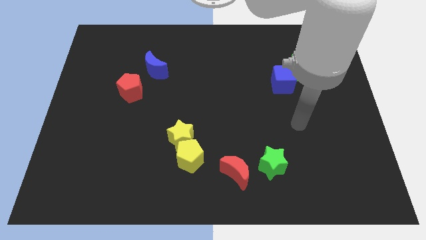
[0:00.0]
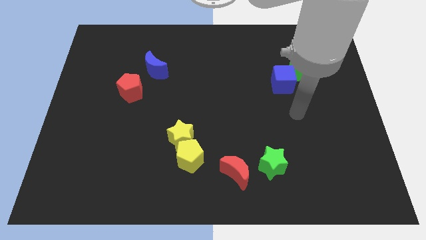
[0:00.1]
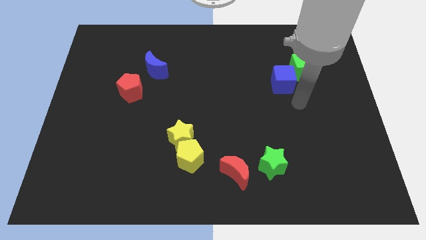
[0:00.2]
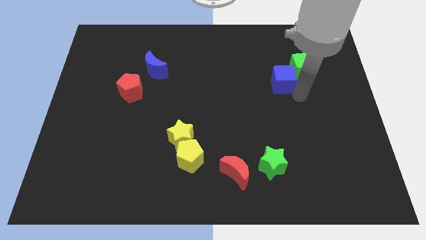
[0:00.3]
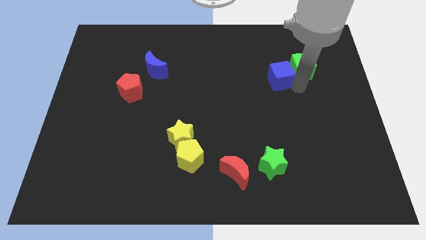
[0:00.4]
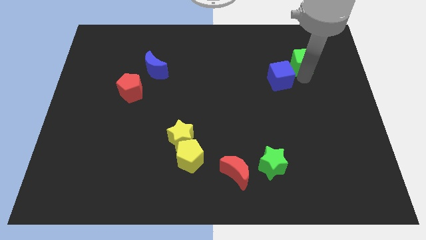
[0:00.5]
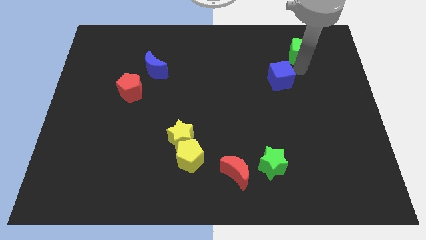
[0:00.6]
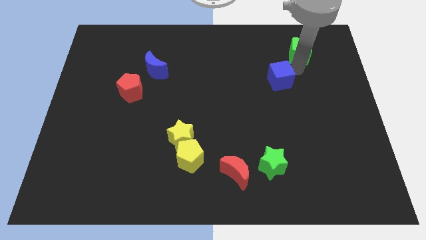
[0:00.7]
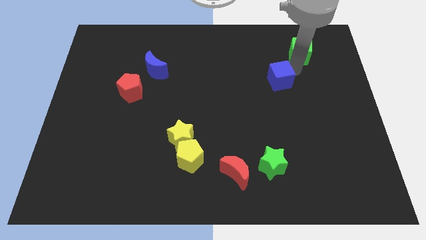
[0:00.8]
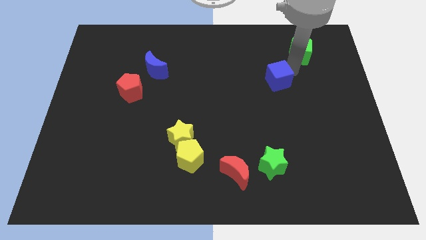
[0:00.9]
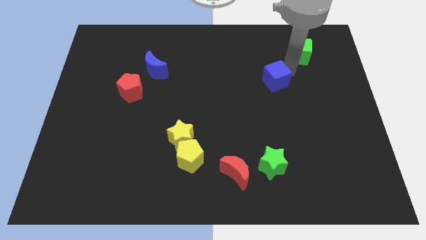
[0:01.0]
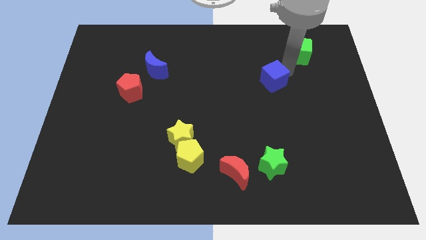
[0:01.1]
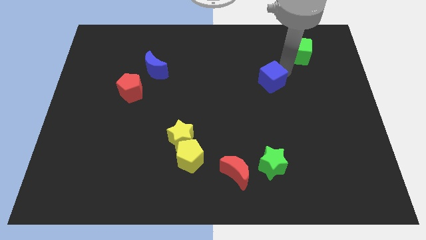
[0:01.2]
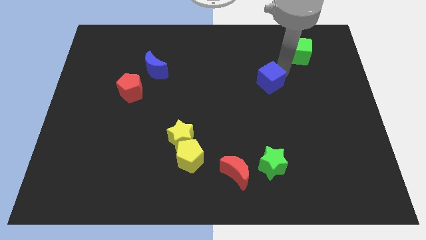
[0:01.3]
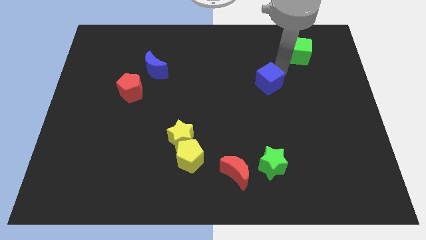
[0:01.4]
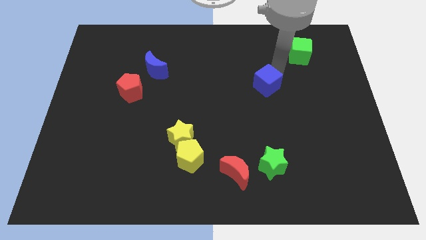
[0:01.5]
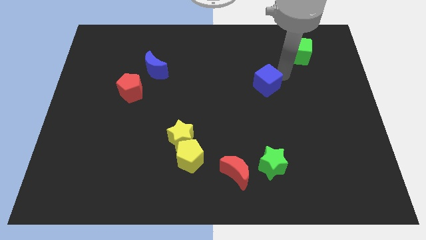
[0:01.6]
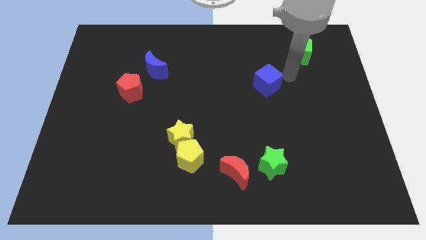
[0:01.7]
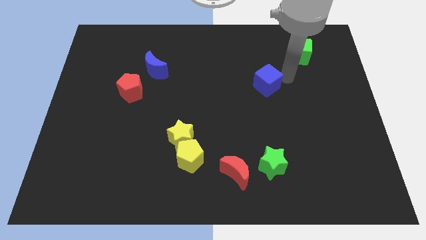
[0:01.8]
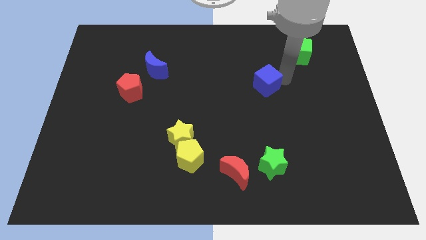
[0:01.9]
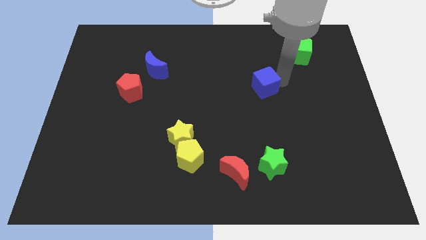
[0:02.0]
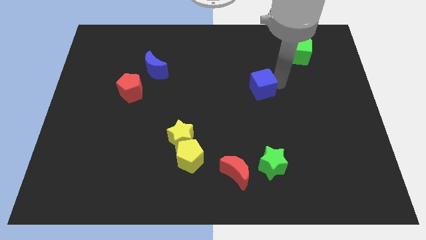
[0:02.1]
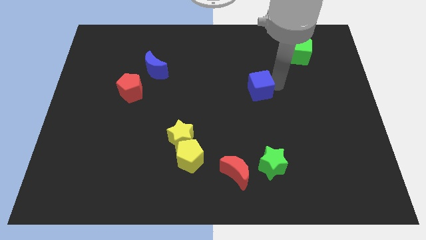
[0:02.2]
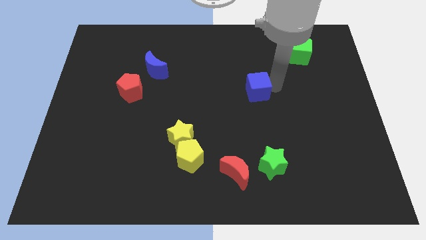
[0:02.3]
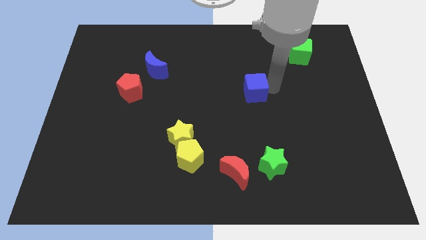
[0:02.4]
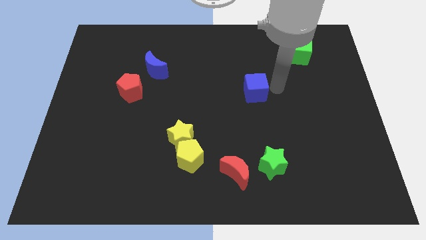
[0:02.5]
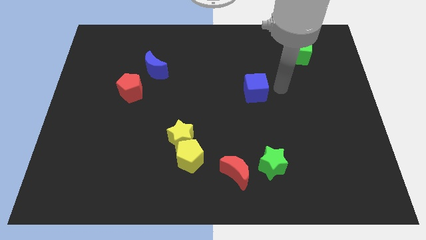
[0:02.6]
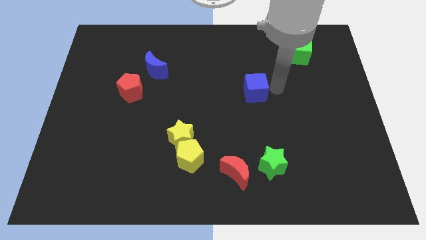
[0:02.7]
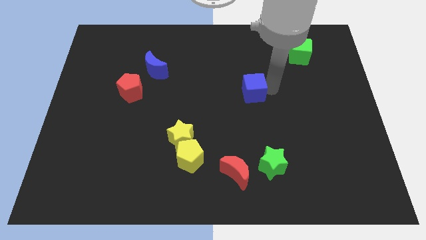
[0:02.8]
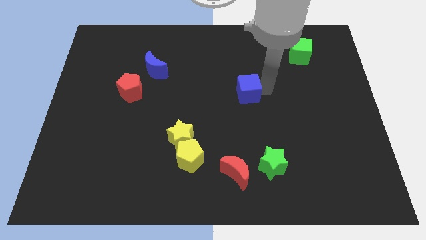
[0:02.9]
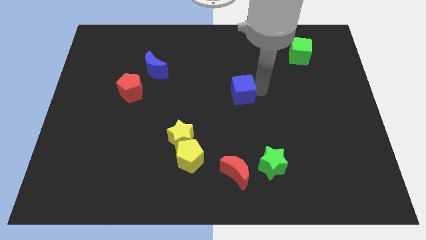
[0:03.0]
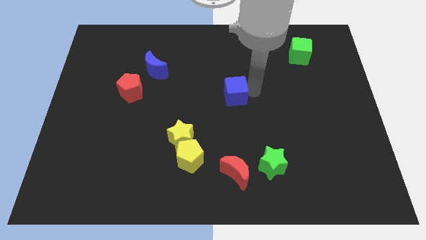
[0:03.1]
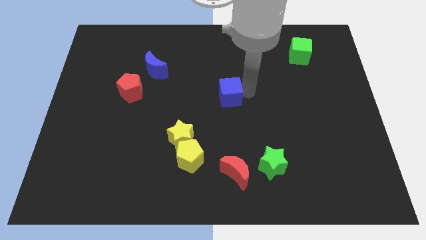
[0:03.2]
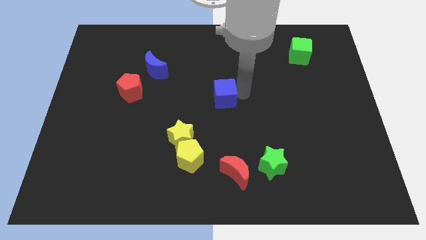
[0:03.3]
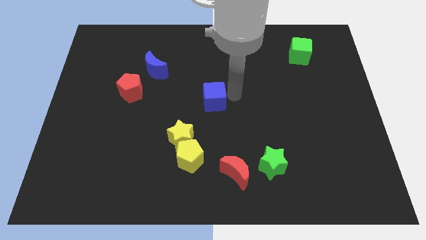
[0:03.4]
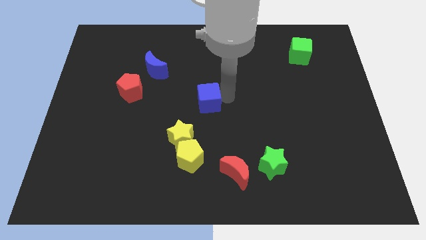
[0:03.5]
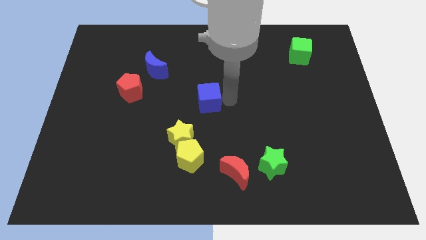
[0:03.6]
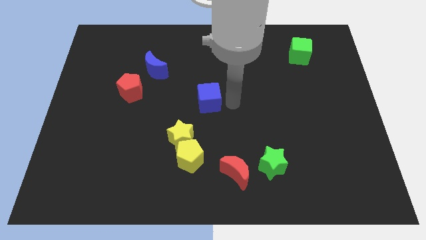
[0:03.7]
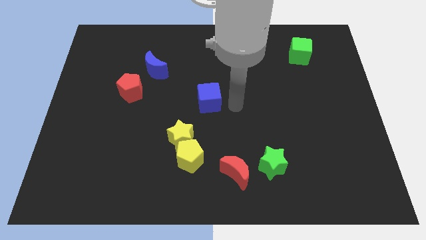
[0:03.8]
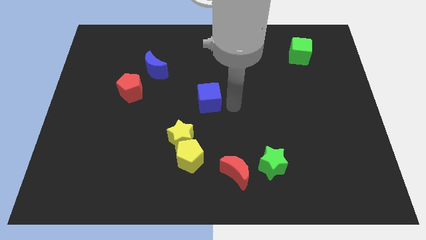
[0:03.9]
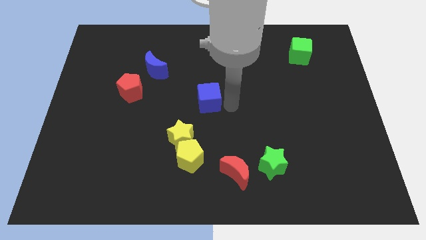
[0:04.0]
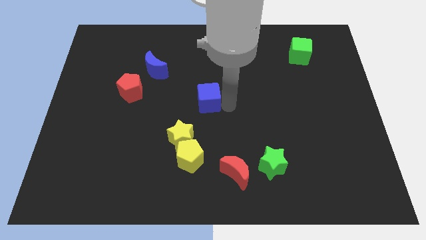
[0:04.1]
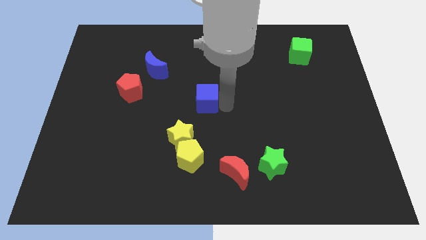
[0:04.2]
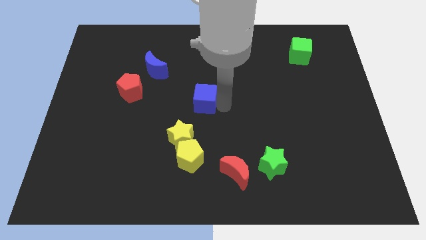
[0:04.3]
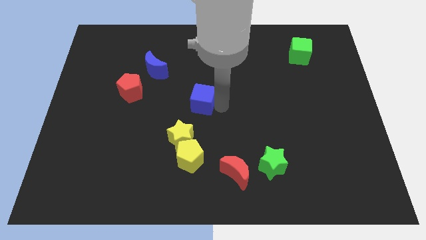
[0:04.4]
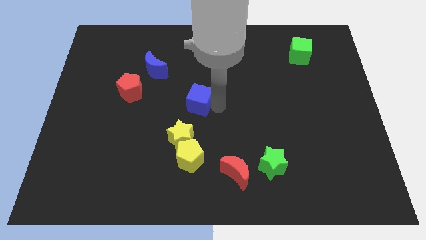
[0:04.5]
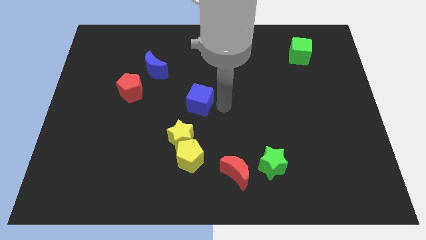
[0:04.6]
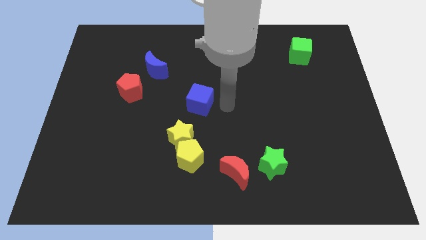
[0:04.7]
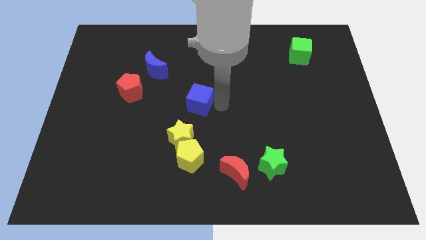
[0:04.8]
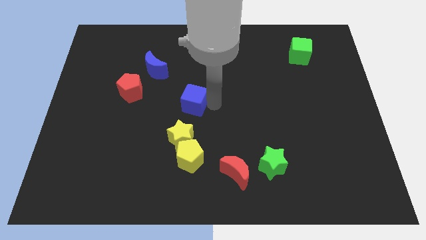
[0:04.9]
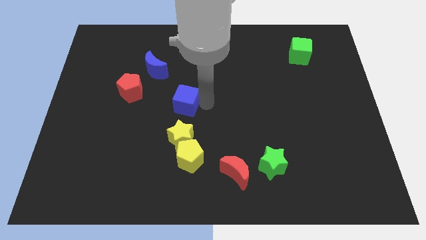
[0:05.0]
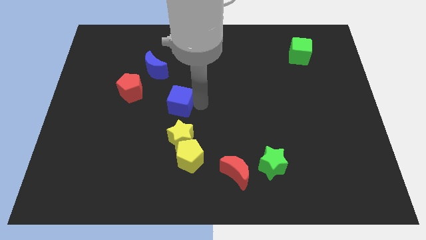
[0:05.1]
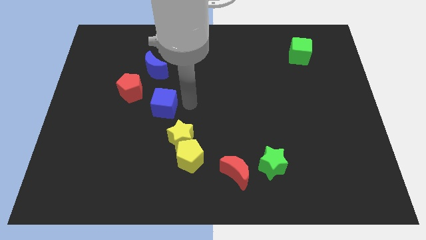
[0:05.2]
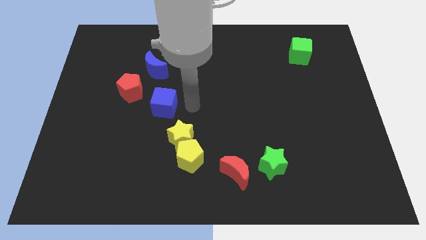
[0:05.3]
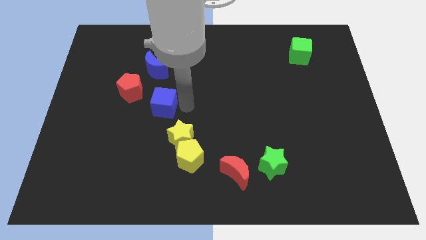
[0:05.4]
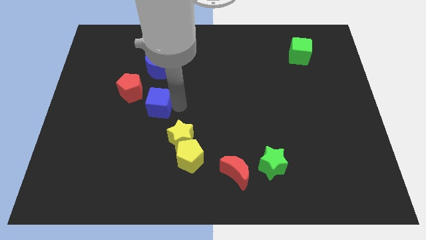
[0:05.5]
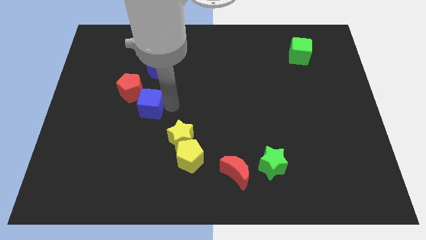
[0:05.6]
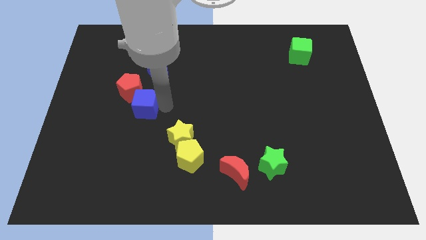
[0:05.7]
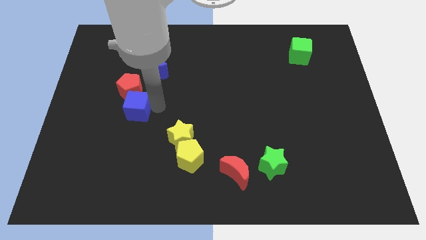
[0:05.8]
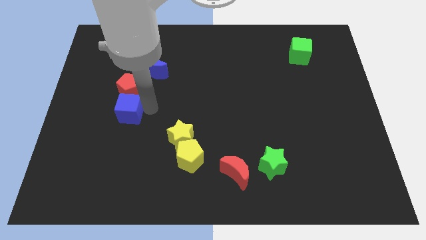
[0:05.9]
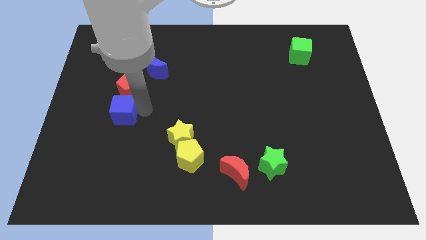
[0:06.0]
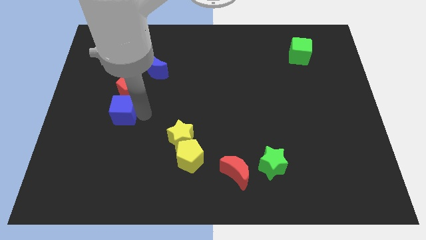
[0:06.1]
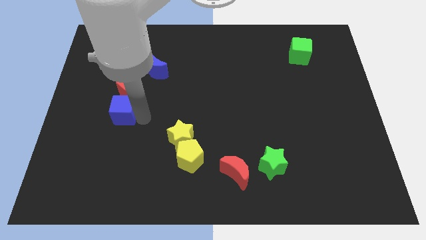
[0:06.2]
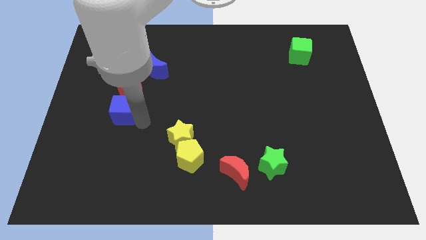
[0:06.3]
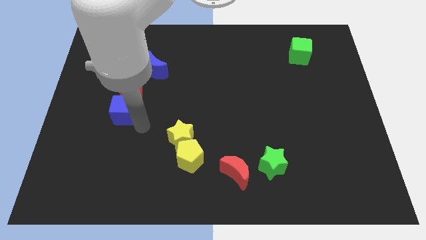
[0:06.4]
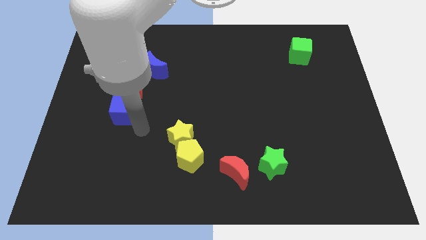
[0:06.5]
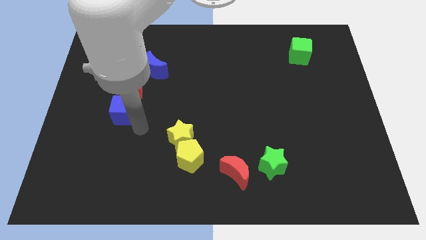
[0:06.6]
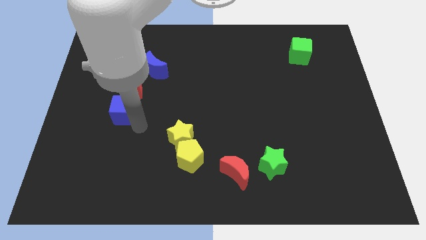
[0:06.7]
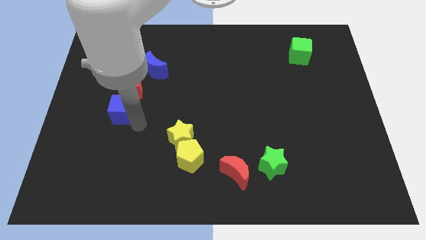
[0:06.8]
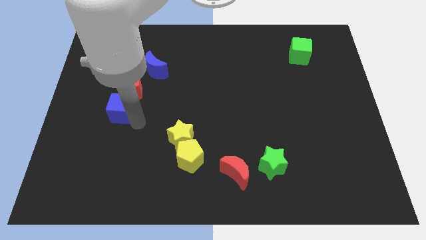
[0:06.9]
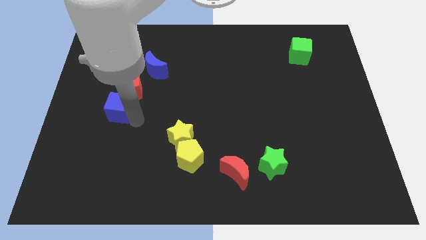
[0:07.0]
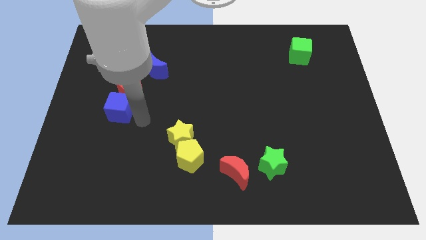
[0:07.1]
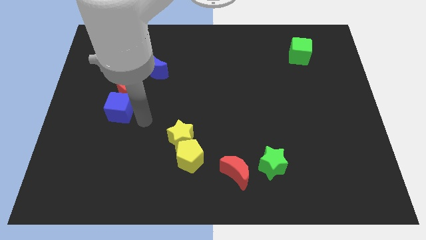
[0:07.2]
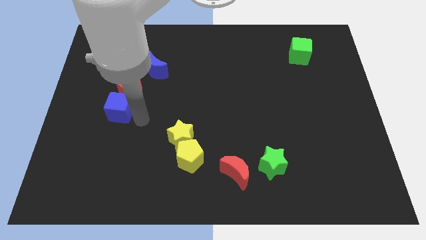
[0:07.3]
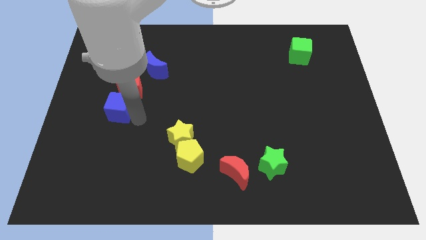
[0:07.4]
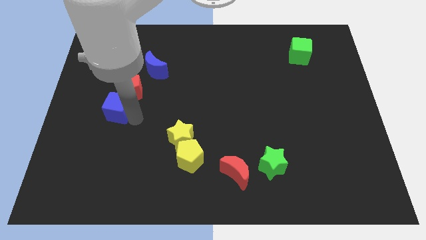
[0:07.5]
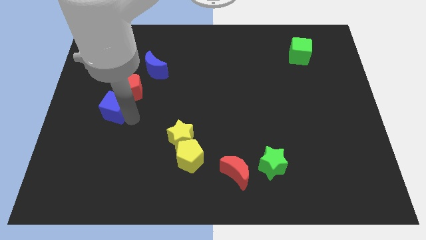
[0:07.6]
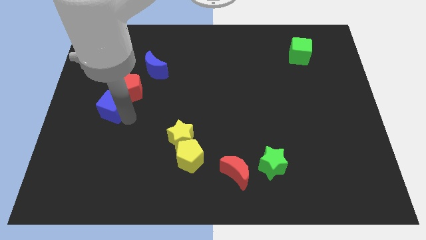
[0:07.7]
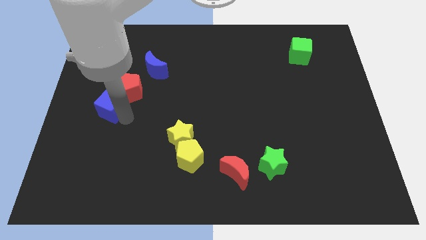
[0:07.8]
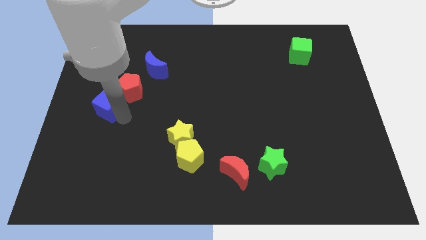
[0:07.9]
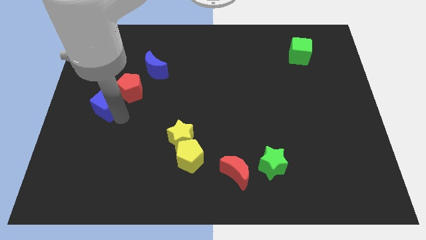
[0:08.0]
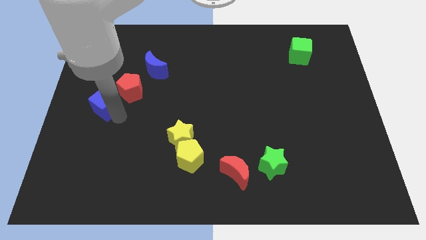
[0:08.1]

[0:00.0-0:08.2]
put the blue cube to the center left
